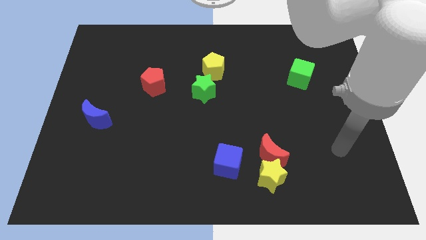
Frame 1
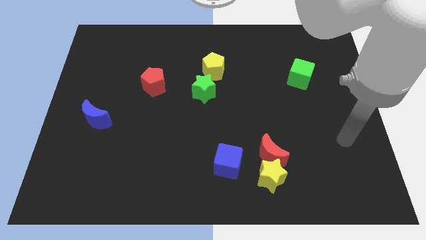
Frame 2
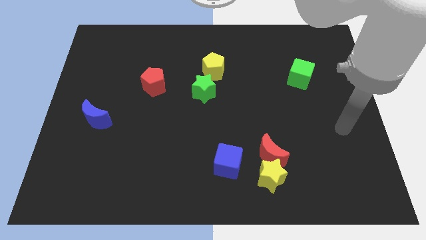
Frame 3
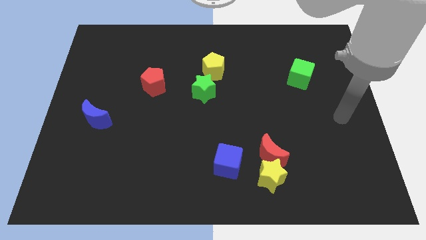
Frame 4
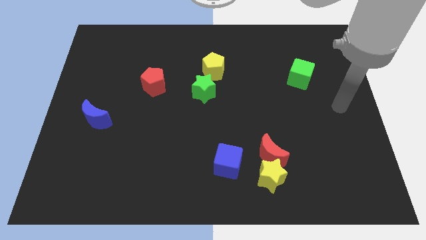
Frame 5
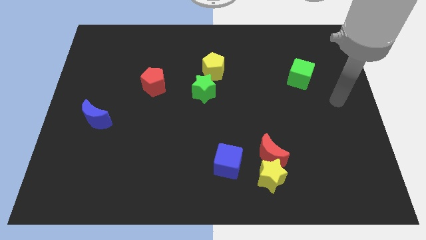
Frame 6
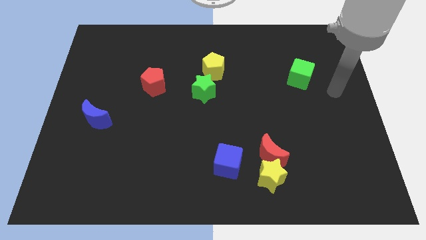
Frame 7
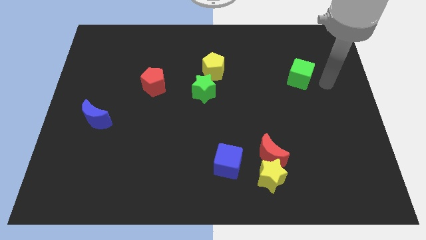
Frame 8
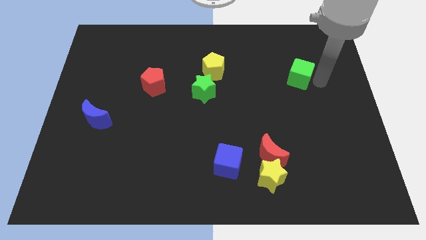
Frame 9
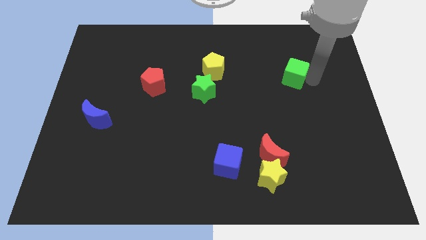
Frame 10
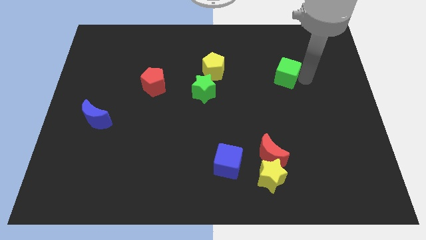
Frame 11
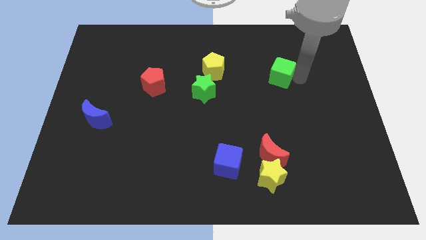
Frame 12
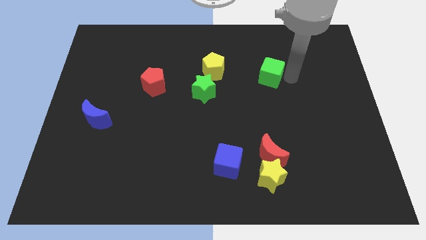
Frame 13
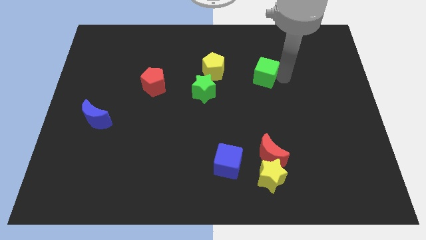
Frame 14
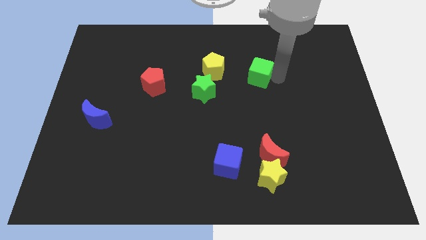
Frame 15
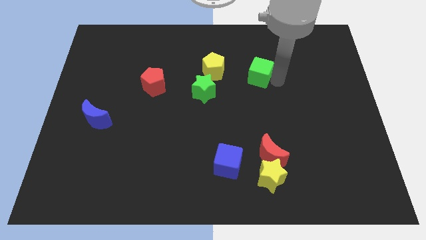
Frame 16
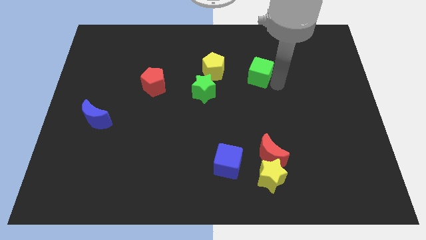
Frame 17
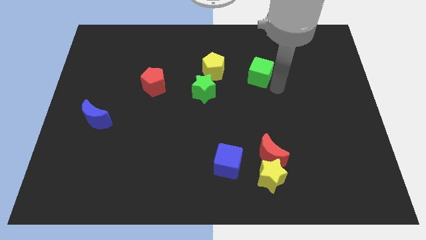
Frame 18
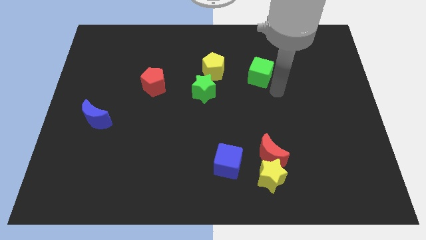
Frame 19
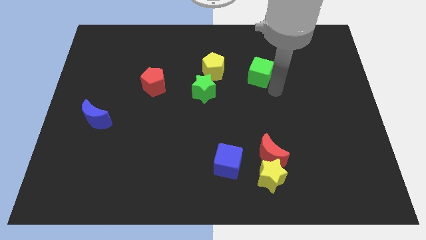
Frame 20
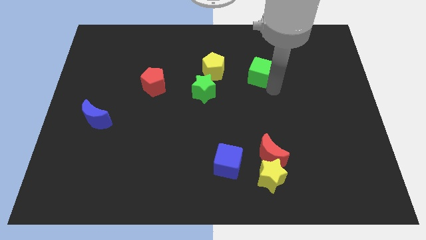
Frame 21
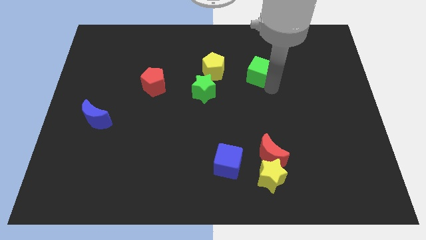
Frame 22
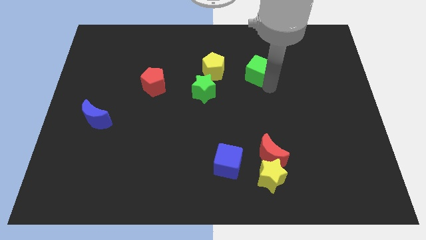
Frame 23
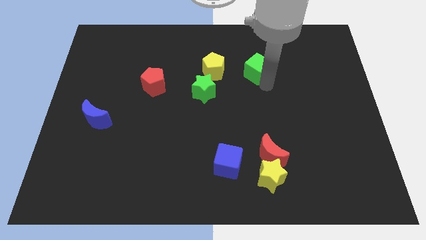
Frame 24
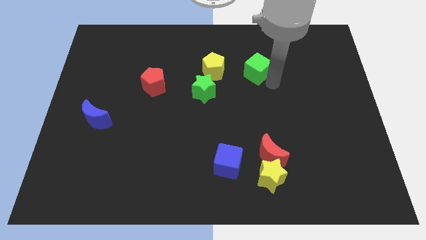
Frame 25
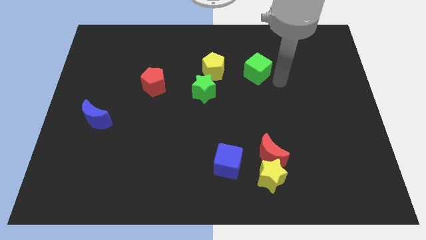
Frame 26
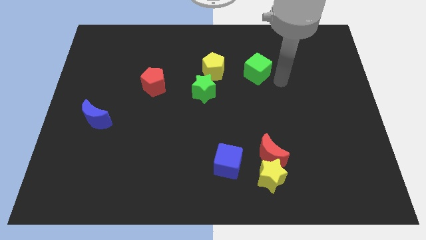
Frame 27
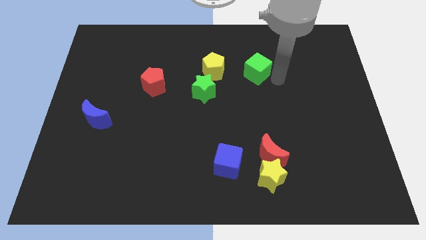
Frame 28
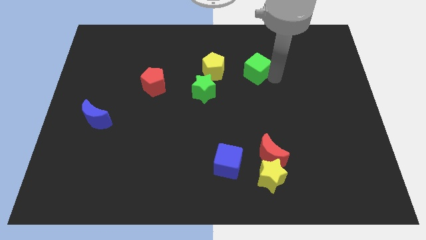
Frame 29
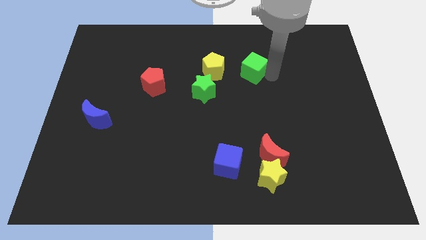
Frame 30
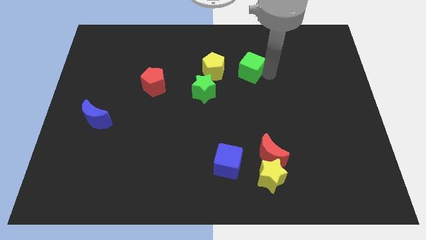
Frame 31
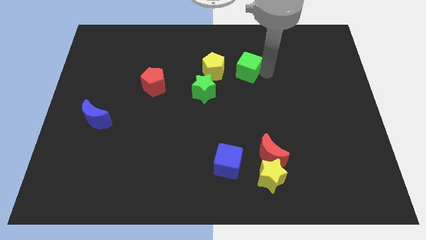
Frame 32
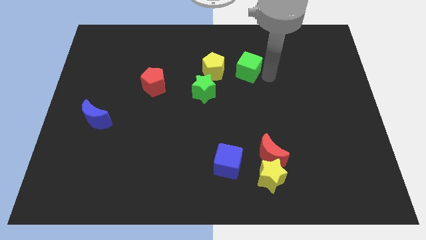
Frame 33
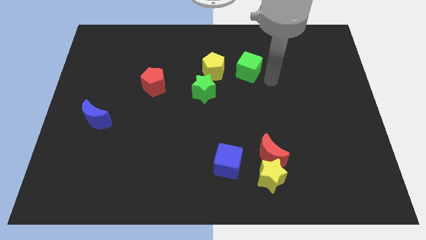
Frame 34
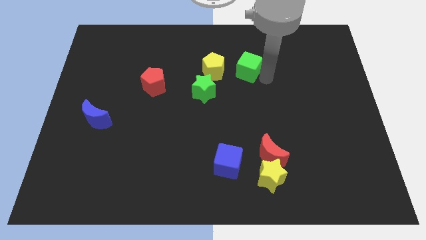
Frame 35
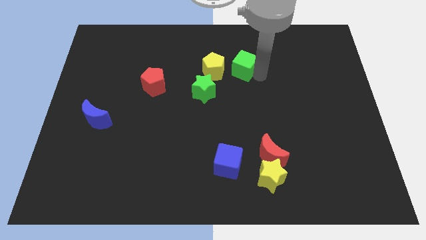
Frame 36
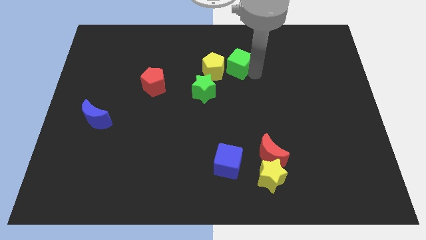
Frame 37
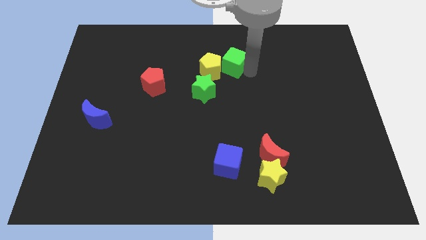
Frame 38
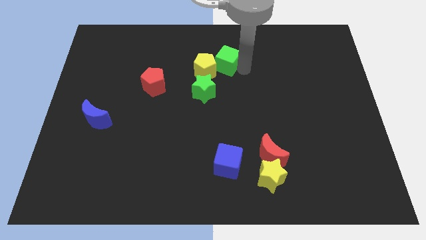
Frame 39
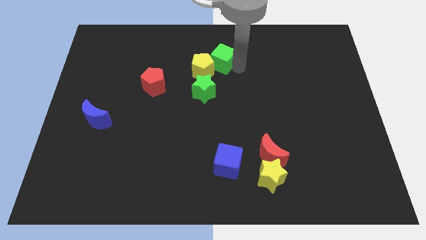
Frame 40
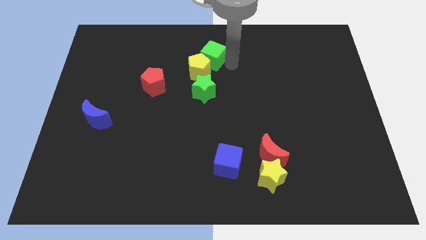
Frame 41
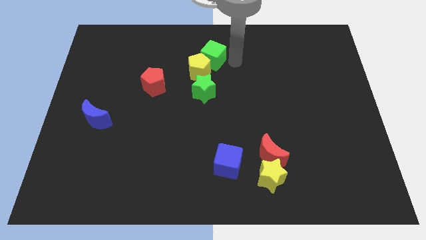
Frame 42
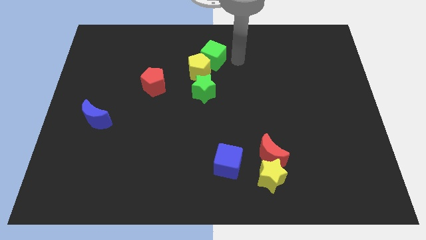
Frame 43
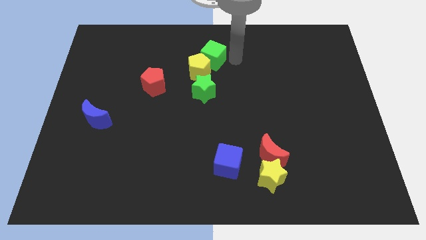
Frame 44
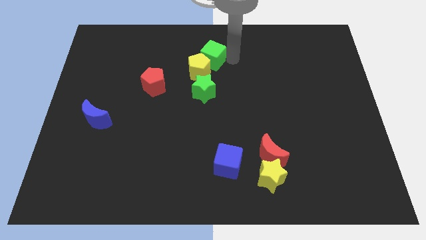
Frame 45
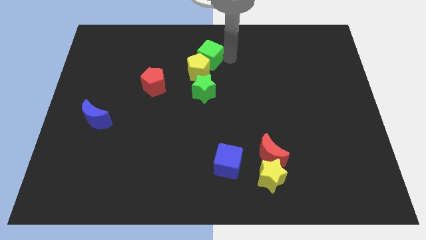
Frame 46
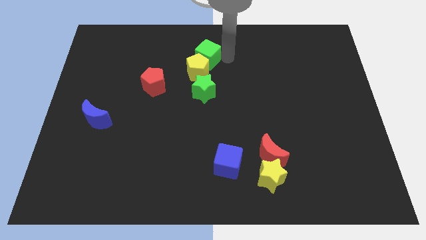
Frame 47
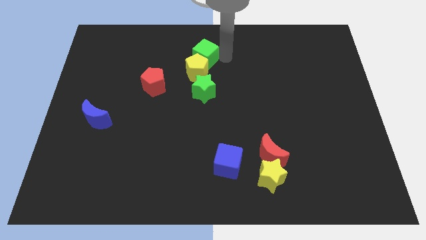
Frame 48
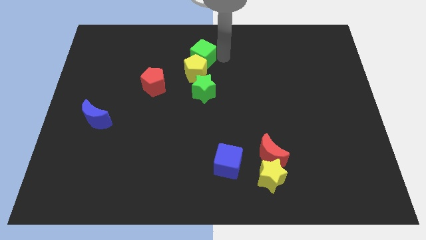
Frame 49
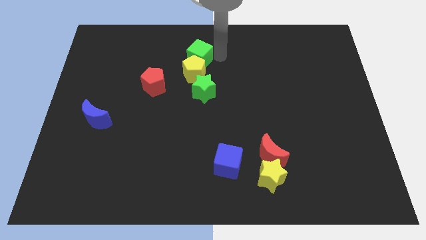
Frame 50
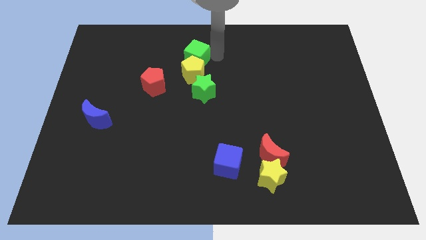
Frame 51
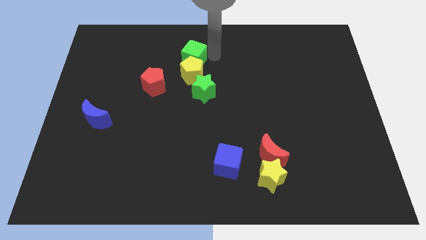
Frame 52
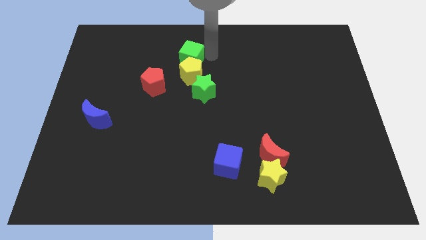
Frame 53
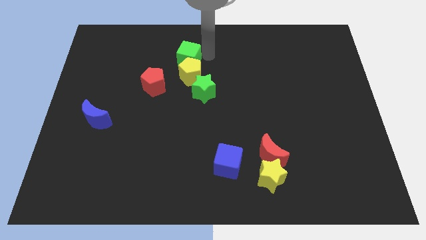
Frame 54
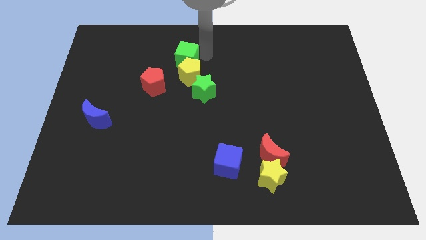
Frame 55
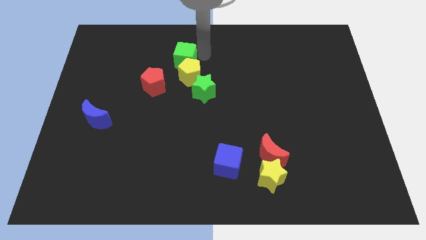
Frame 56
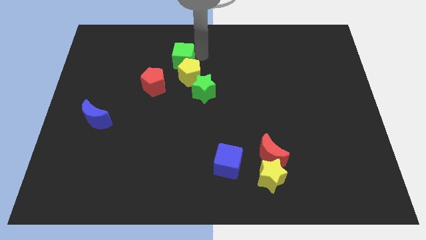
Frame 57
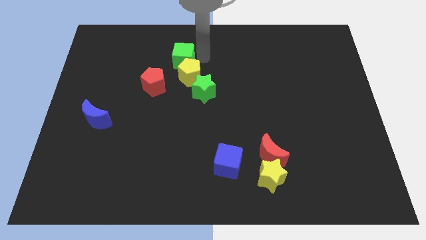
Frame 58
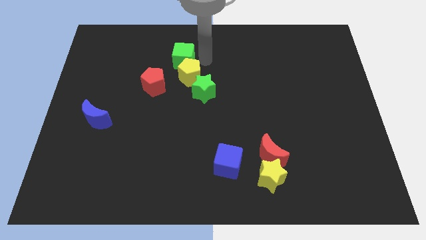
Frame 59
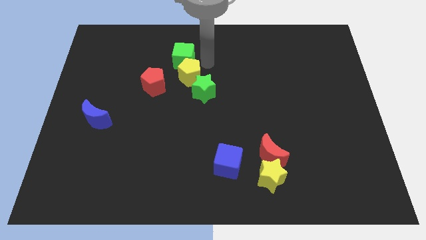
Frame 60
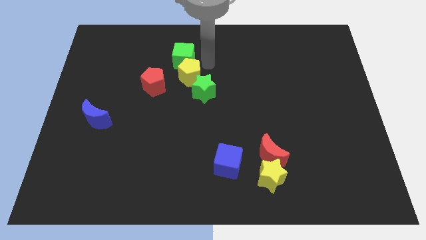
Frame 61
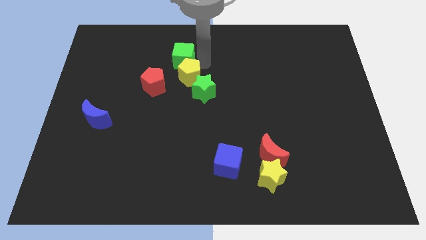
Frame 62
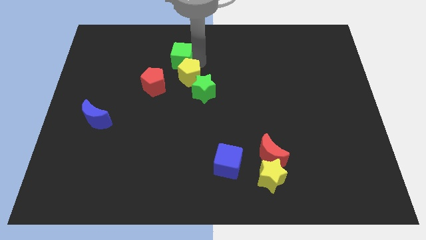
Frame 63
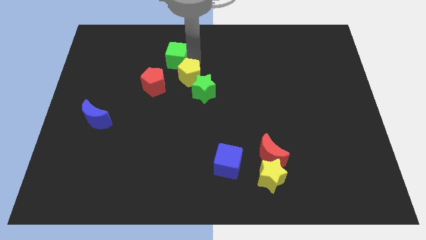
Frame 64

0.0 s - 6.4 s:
move the green cube above the red pentagon

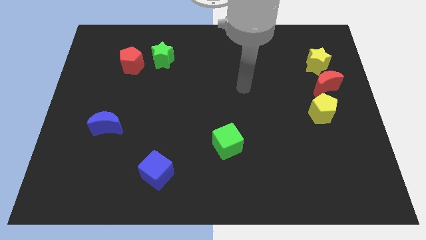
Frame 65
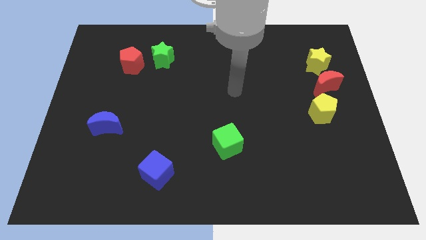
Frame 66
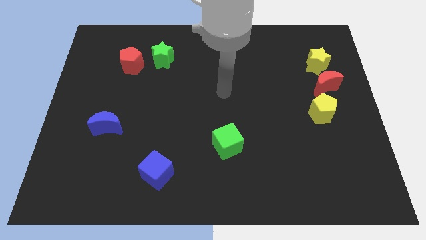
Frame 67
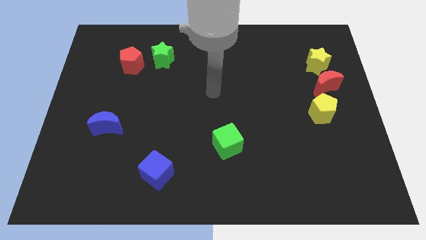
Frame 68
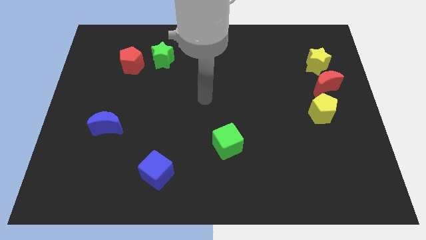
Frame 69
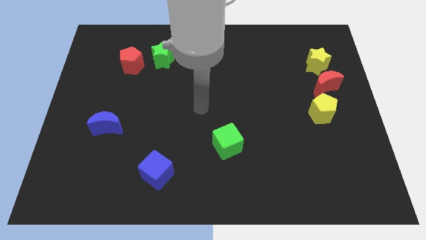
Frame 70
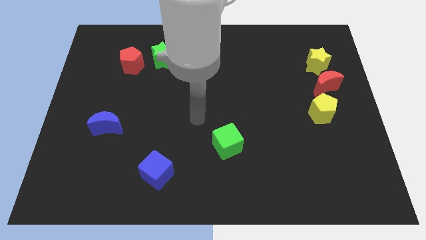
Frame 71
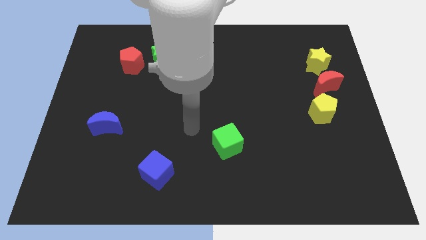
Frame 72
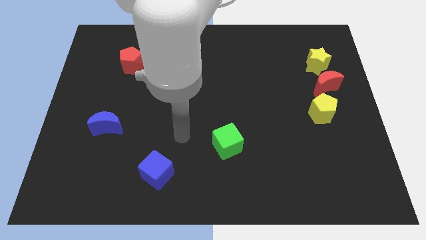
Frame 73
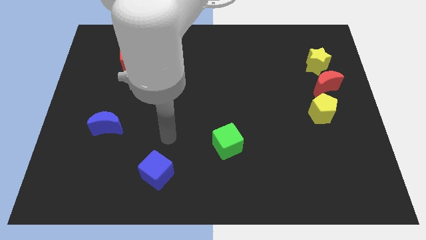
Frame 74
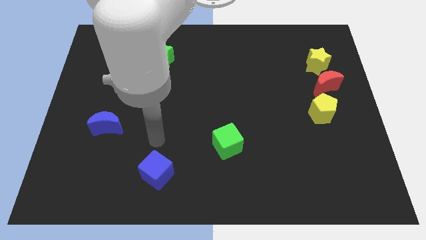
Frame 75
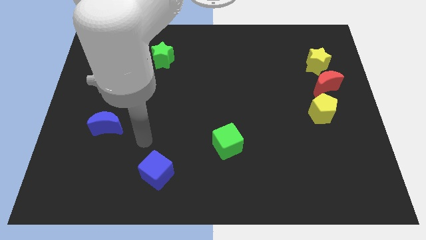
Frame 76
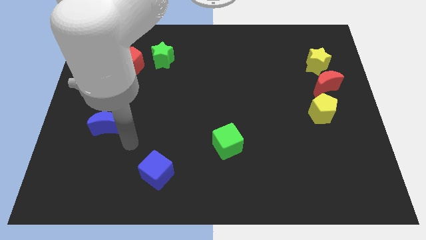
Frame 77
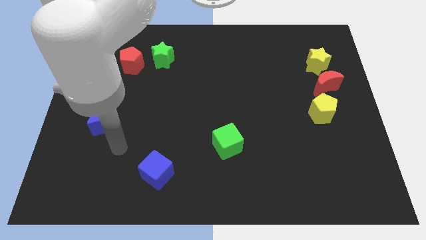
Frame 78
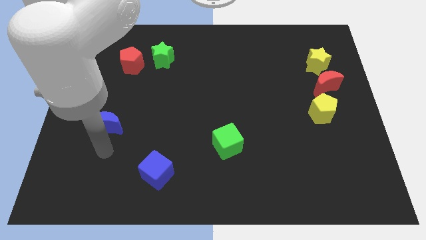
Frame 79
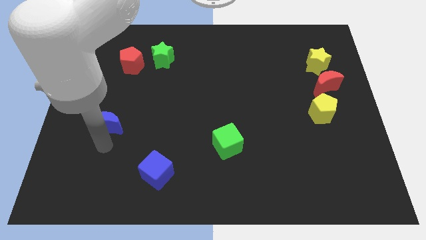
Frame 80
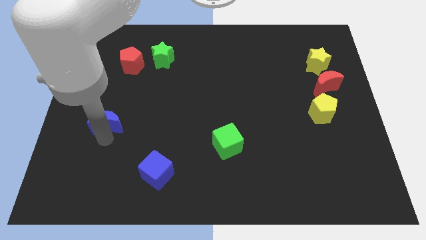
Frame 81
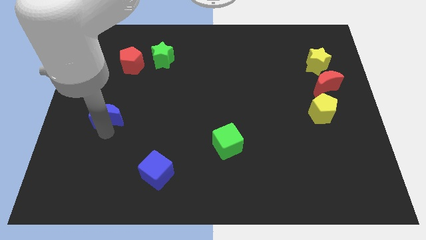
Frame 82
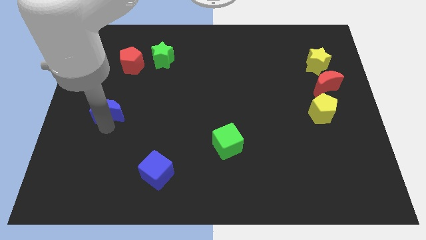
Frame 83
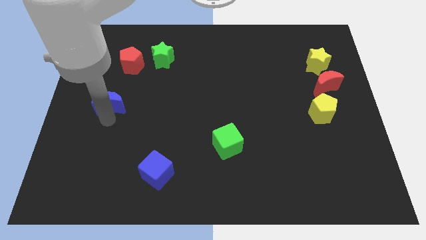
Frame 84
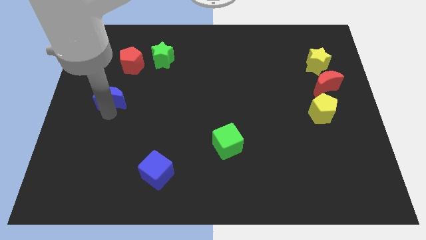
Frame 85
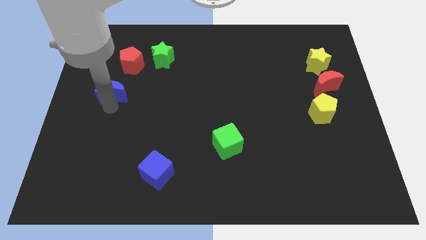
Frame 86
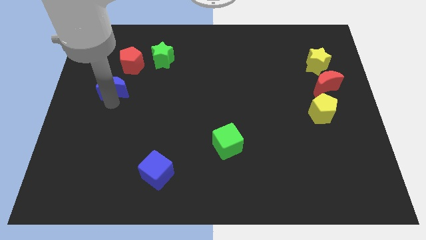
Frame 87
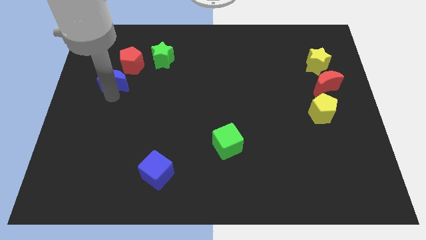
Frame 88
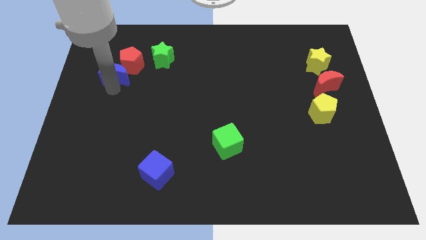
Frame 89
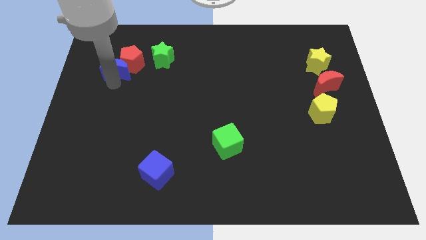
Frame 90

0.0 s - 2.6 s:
slide the blue moon left of the green star
